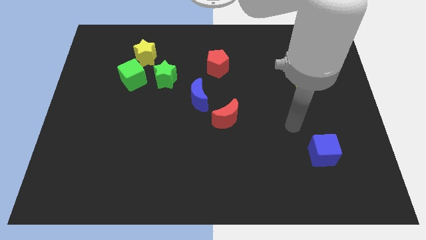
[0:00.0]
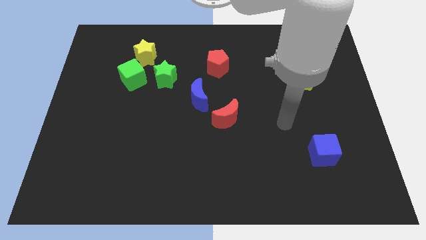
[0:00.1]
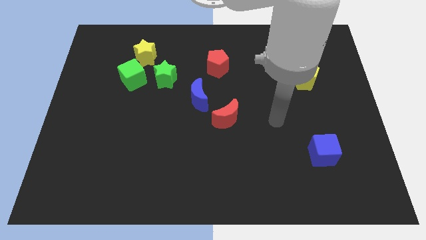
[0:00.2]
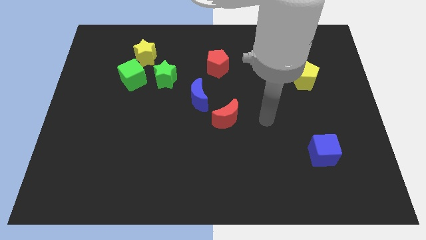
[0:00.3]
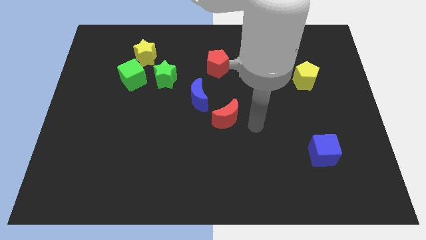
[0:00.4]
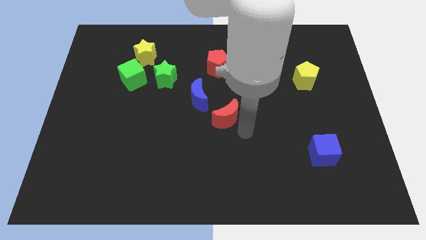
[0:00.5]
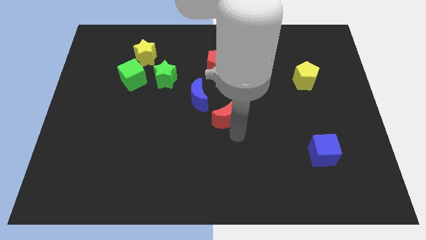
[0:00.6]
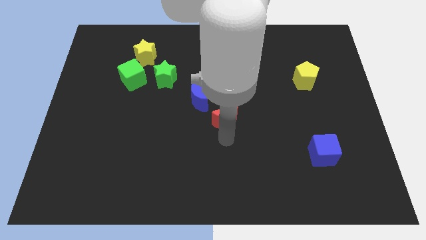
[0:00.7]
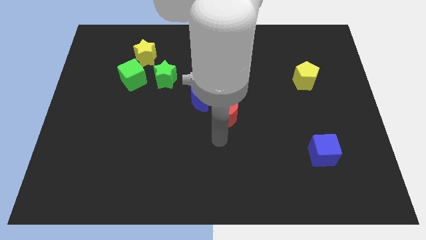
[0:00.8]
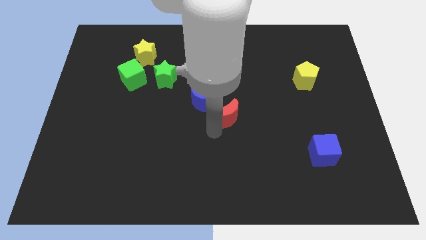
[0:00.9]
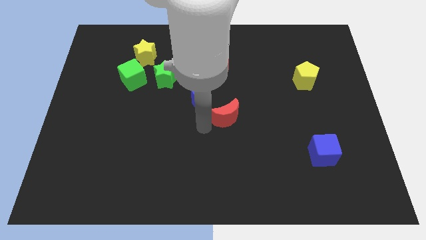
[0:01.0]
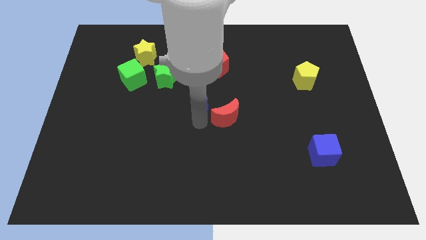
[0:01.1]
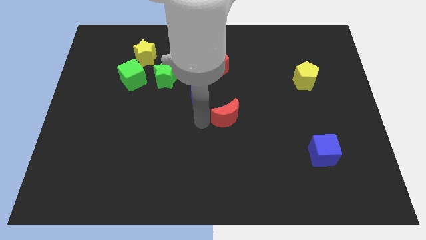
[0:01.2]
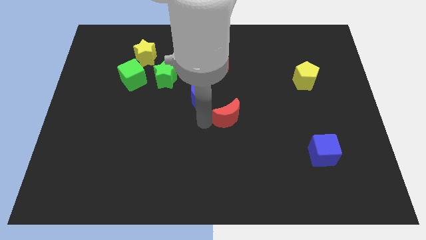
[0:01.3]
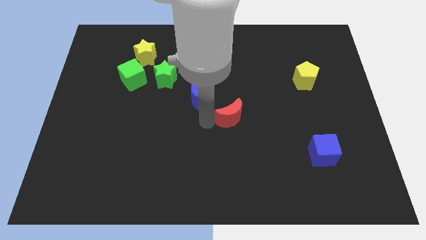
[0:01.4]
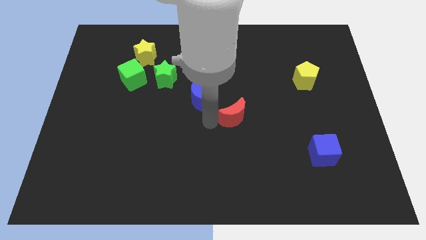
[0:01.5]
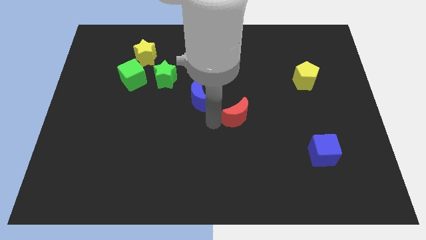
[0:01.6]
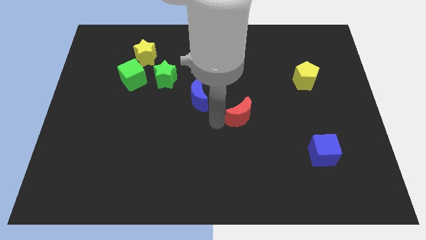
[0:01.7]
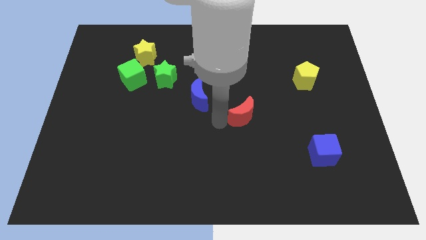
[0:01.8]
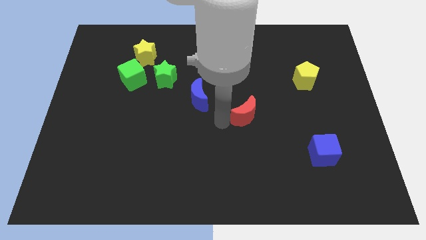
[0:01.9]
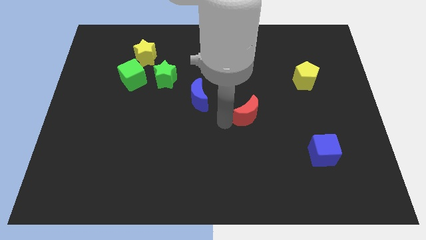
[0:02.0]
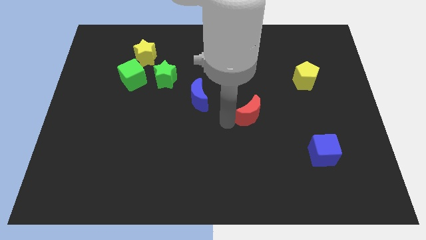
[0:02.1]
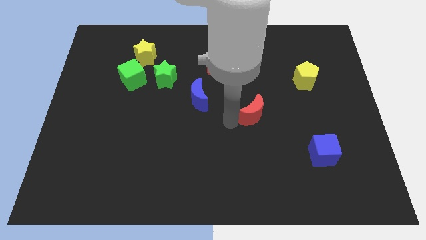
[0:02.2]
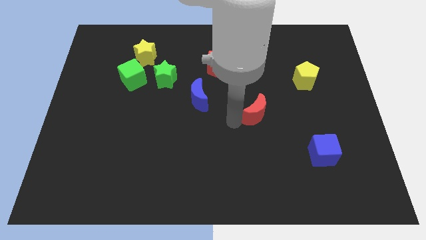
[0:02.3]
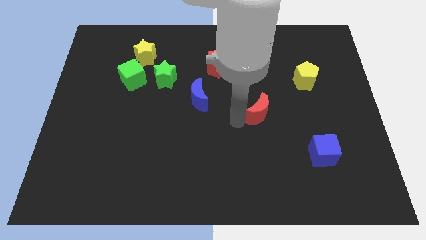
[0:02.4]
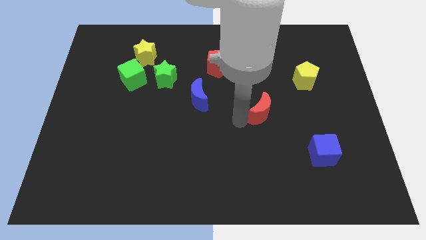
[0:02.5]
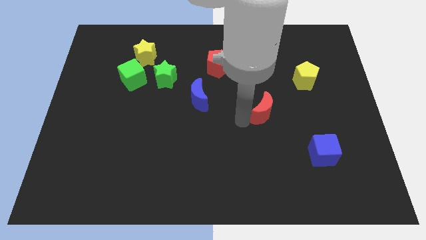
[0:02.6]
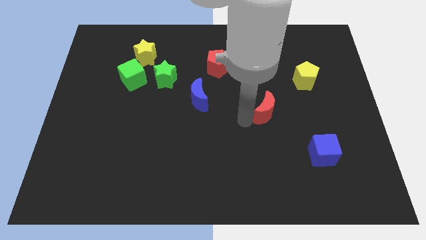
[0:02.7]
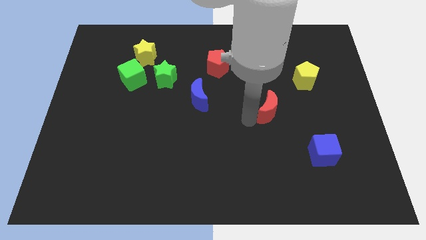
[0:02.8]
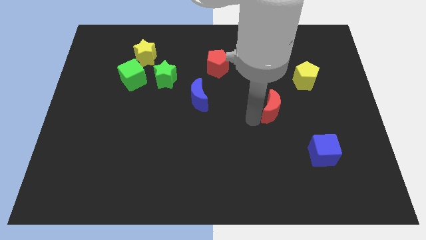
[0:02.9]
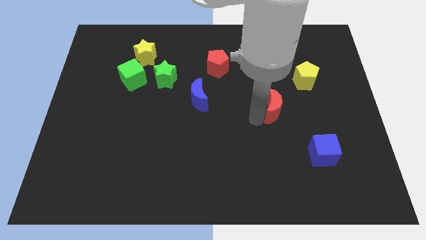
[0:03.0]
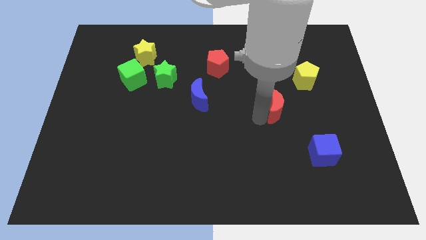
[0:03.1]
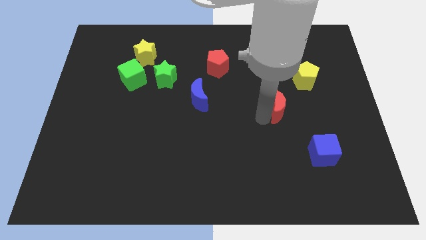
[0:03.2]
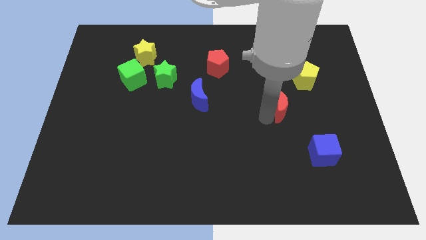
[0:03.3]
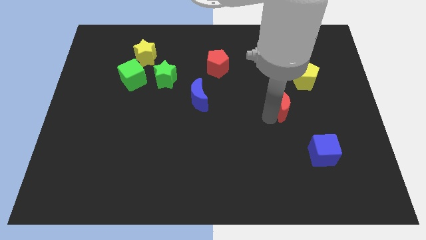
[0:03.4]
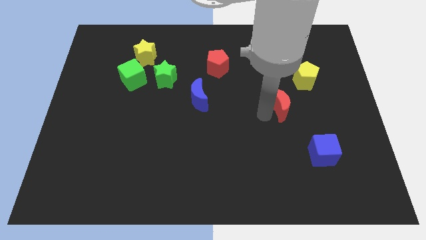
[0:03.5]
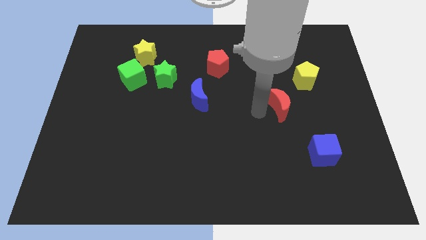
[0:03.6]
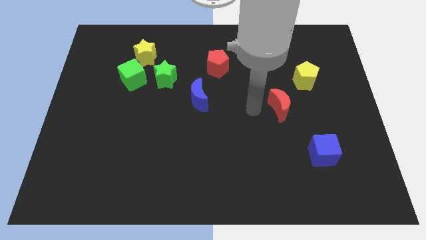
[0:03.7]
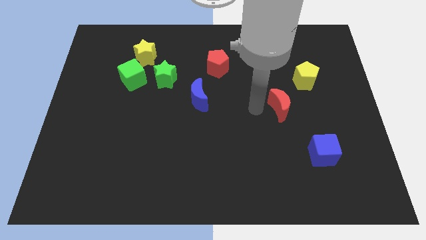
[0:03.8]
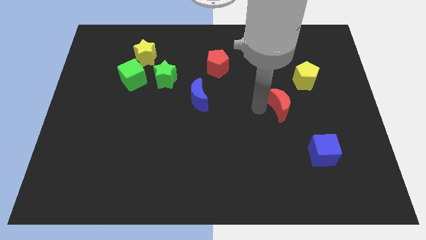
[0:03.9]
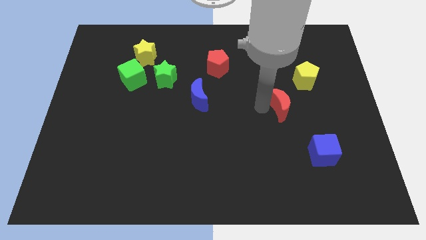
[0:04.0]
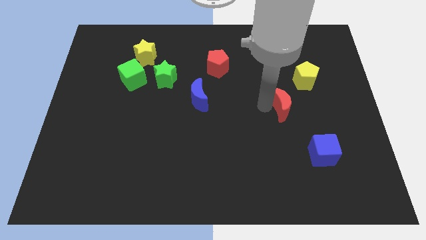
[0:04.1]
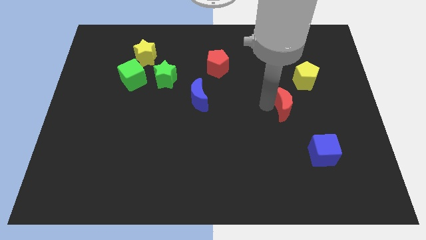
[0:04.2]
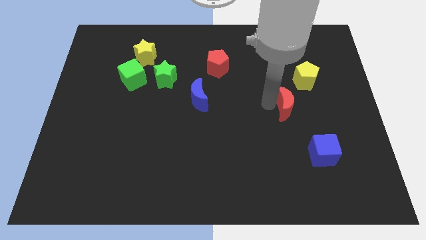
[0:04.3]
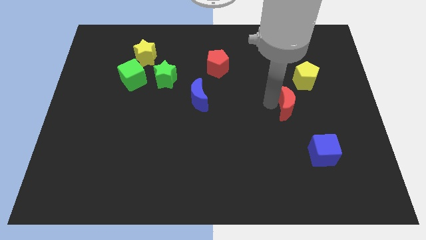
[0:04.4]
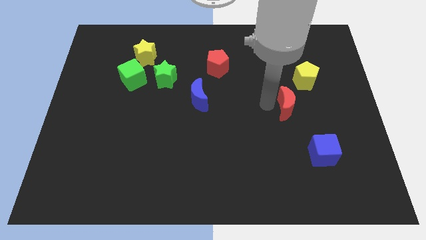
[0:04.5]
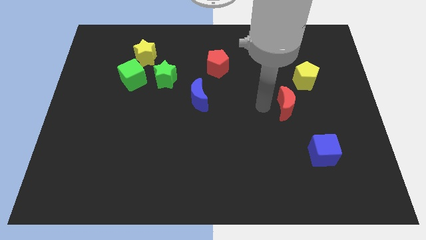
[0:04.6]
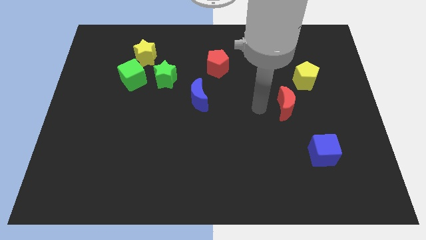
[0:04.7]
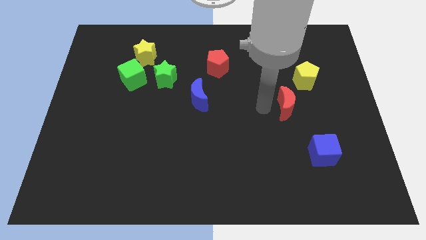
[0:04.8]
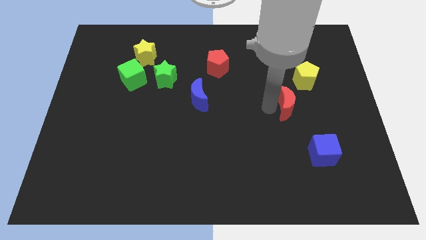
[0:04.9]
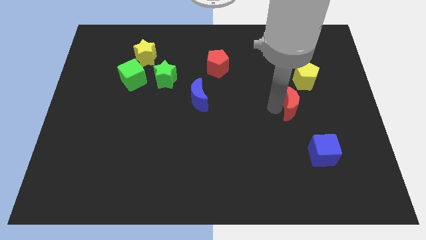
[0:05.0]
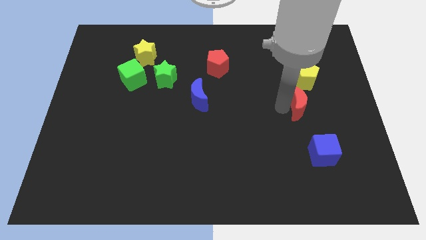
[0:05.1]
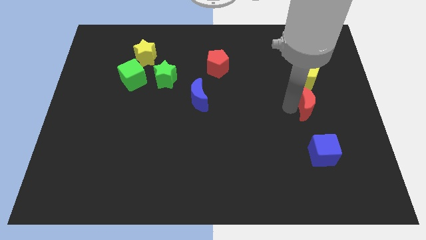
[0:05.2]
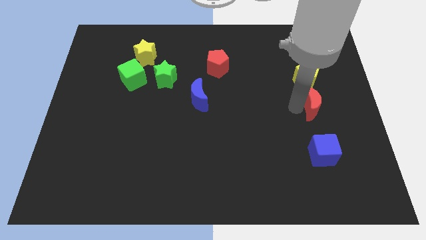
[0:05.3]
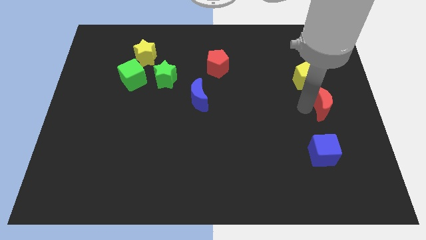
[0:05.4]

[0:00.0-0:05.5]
slide the red moon to the right side
